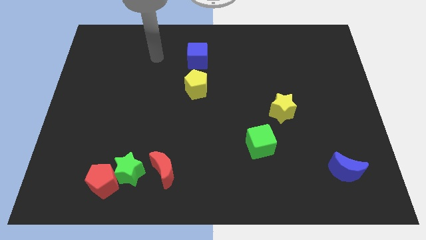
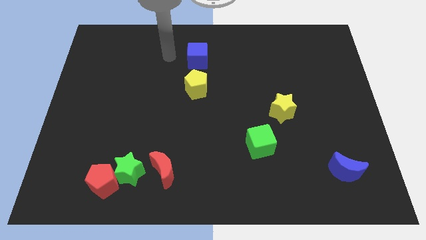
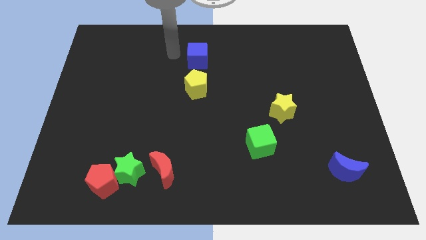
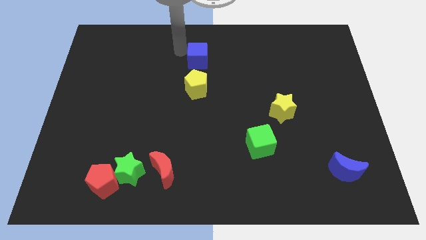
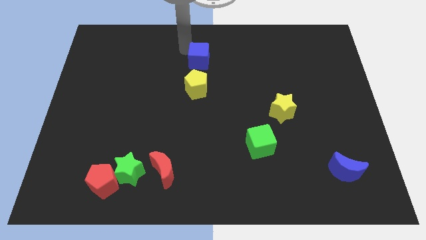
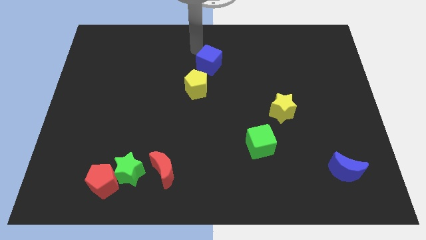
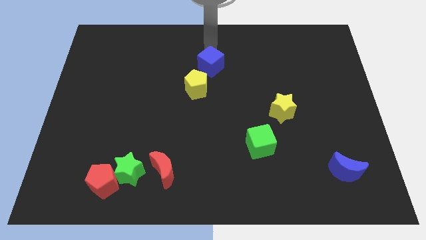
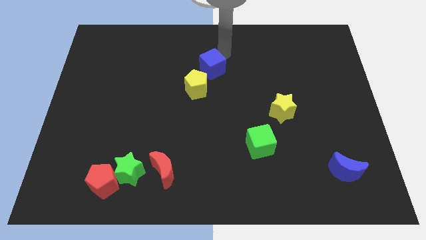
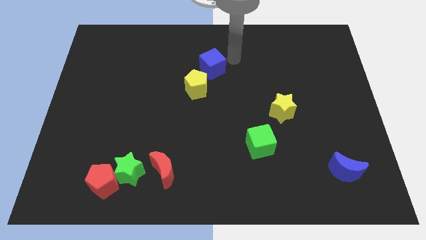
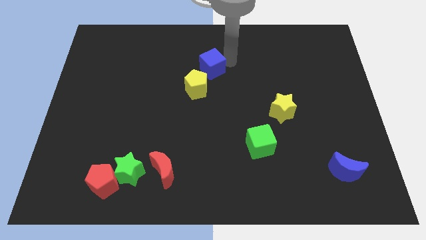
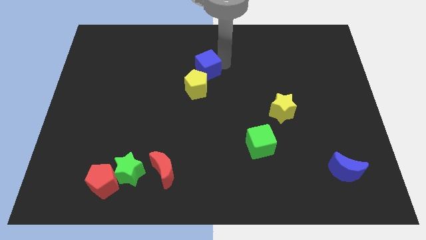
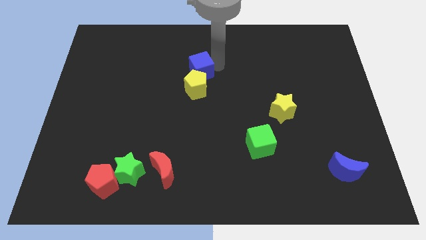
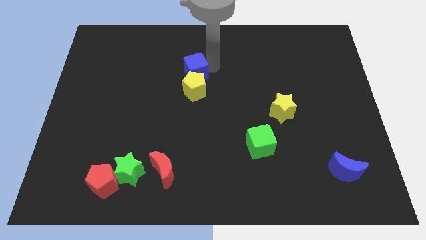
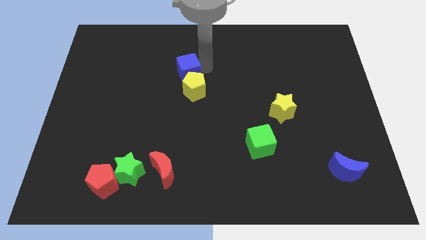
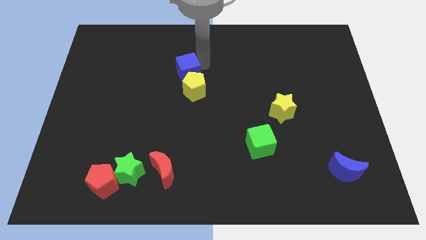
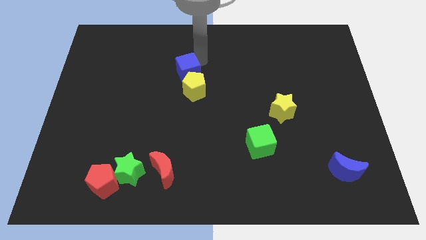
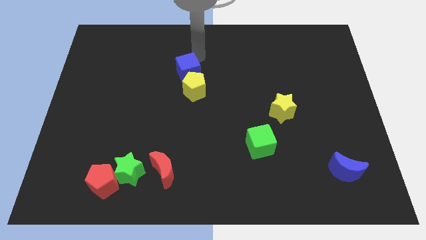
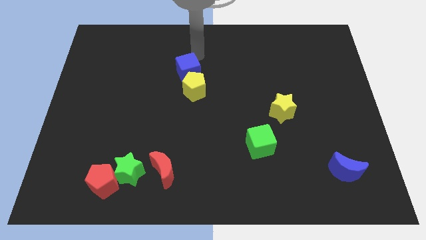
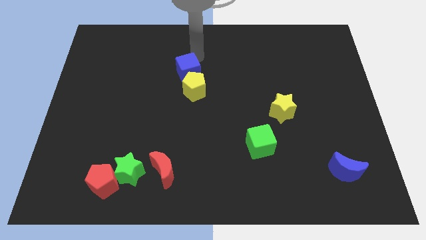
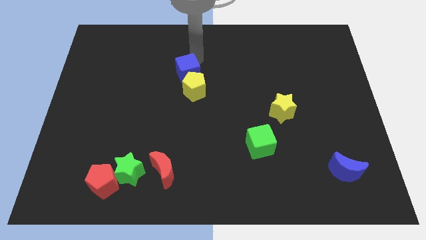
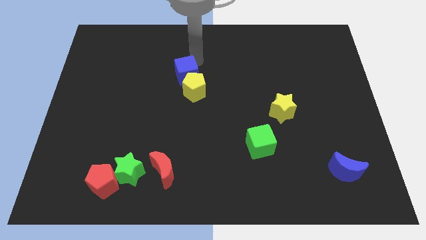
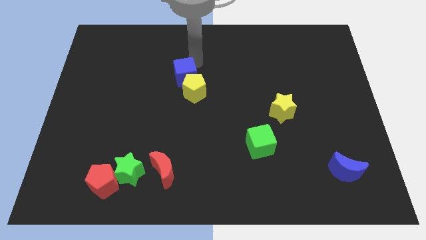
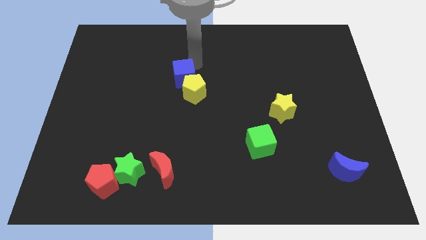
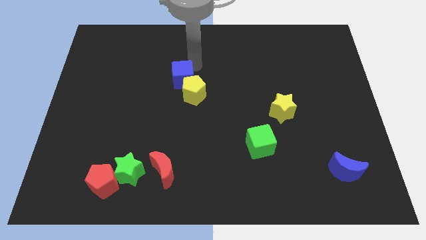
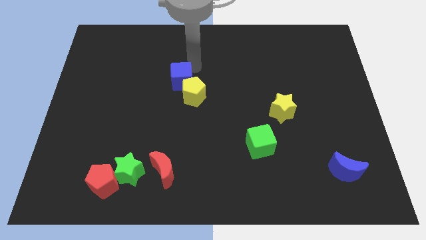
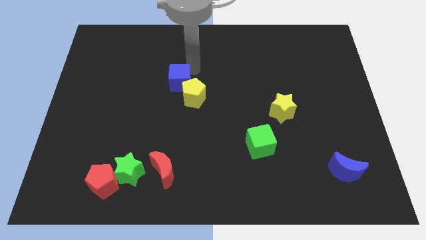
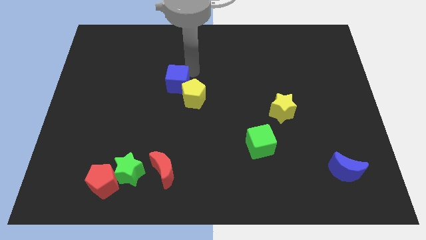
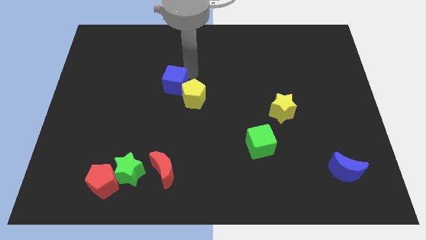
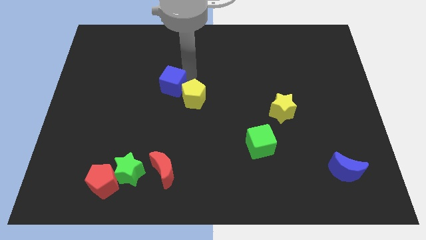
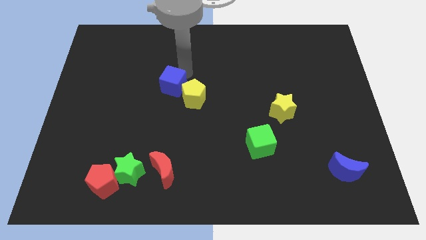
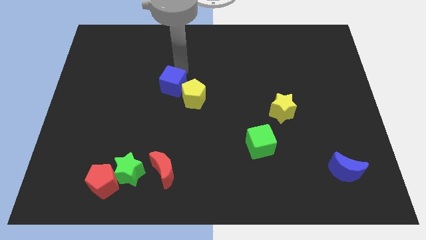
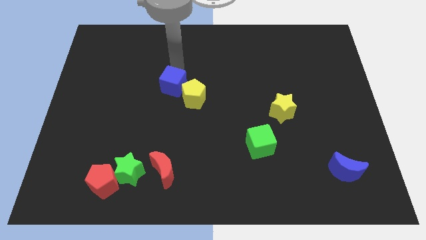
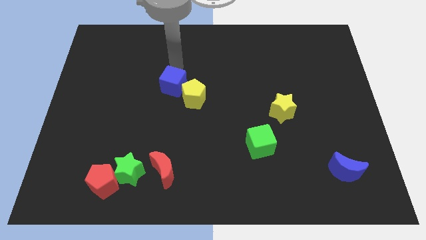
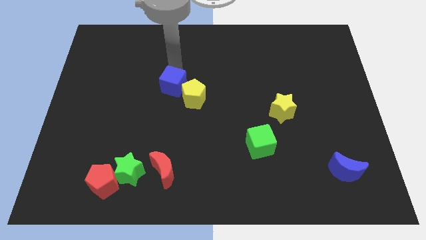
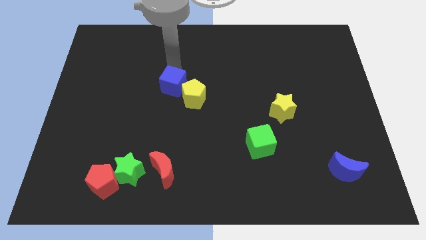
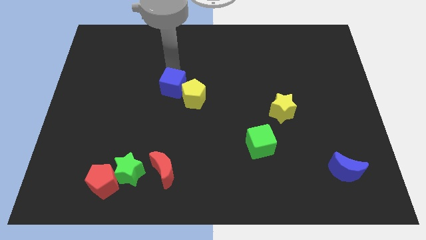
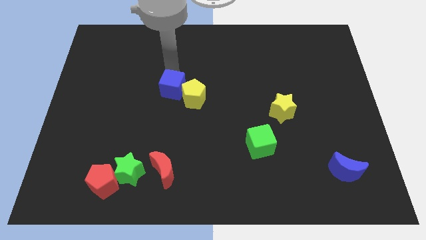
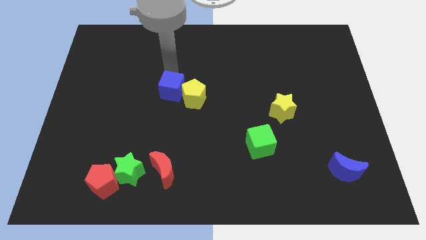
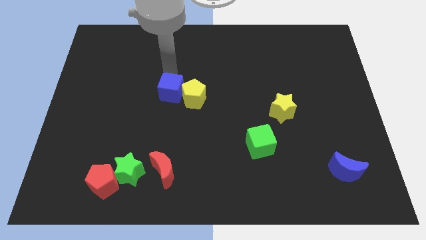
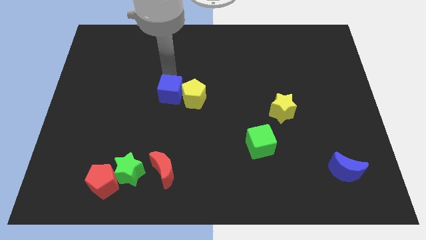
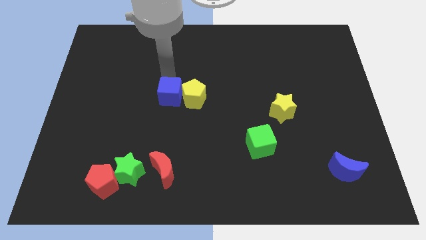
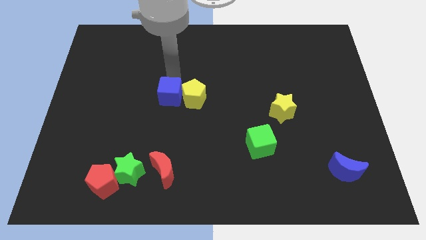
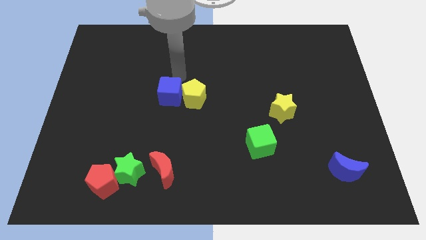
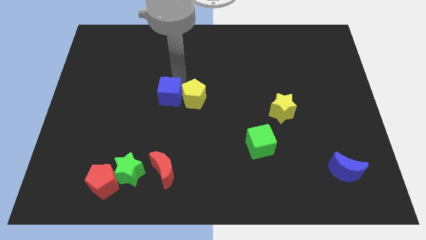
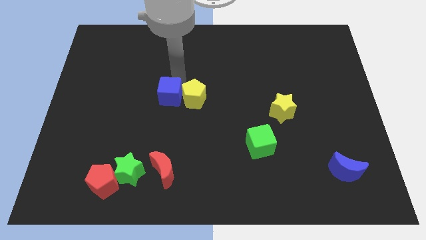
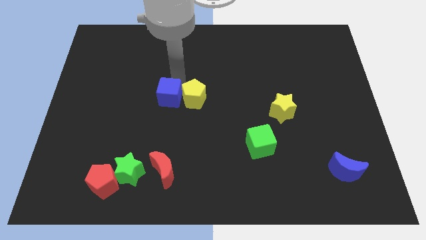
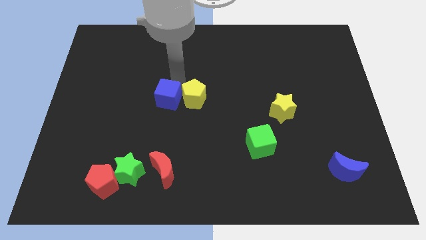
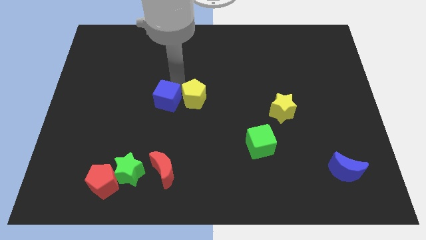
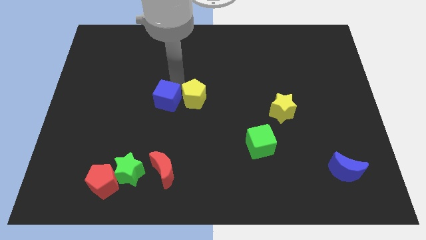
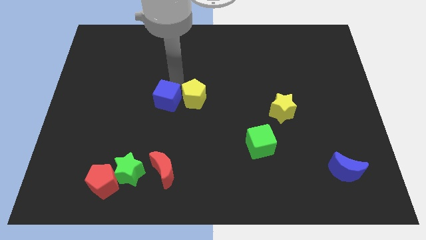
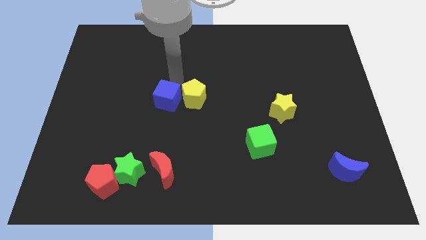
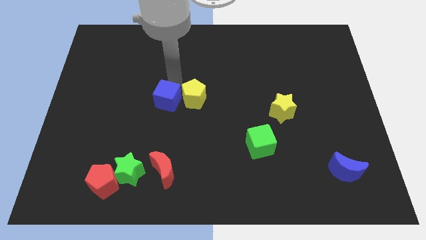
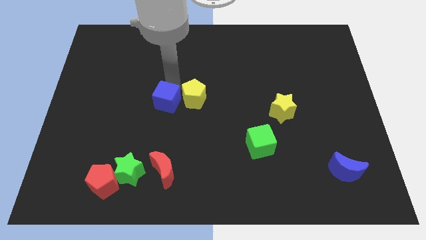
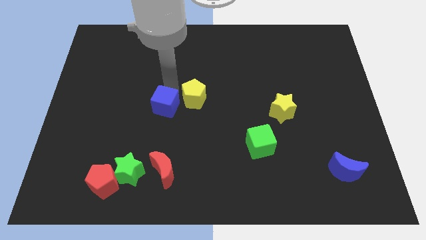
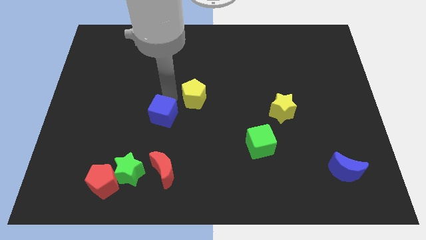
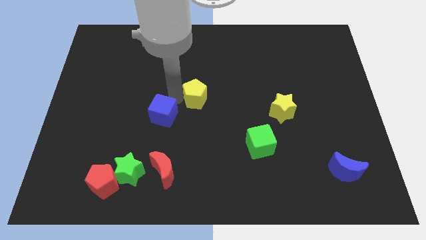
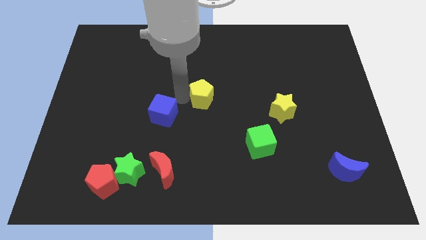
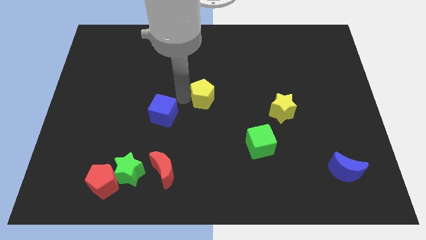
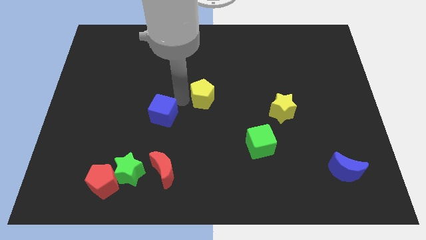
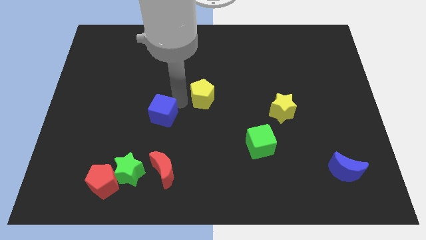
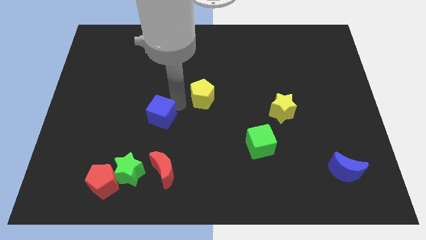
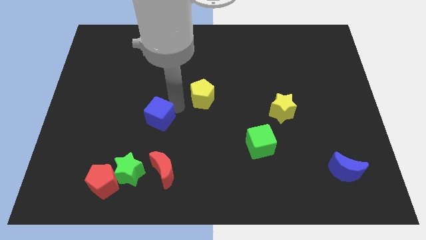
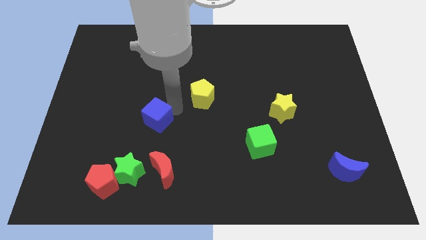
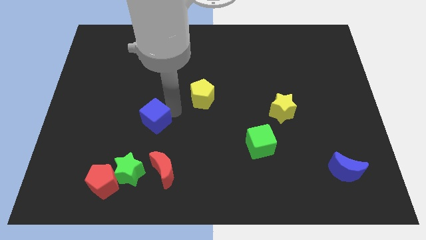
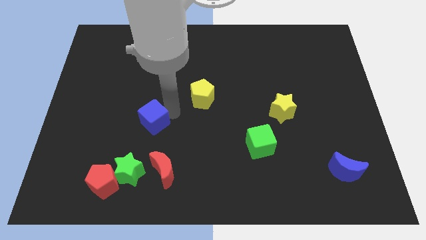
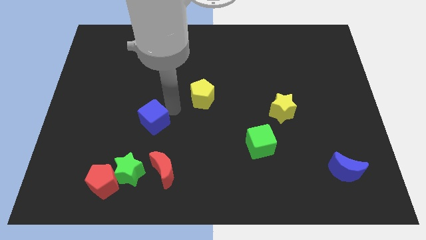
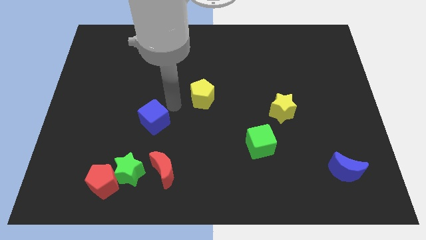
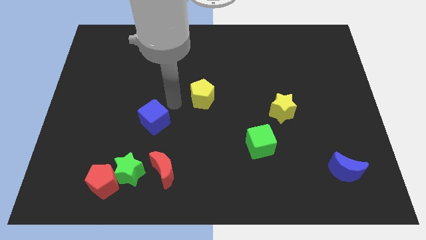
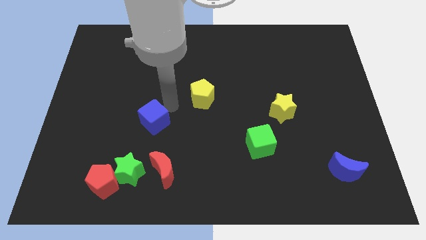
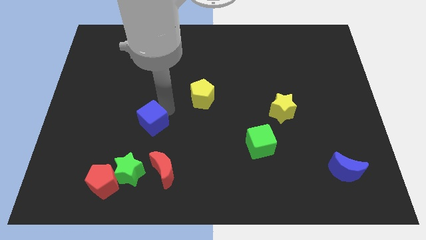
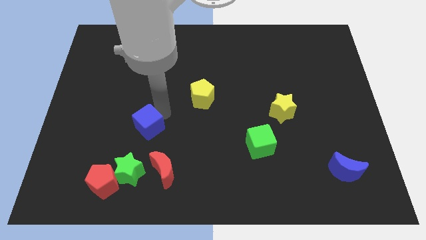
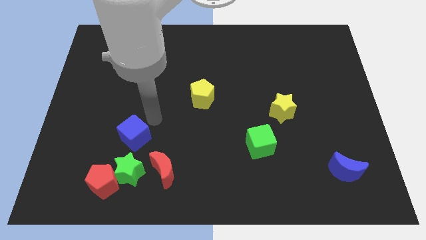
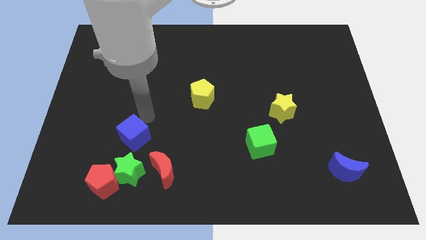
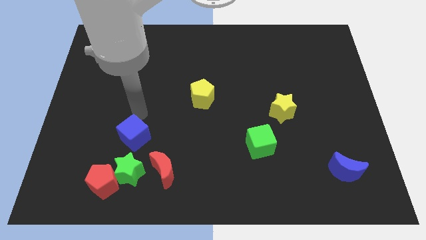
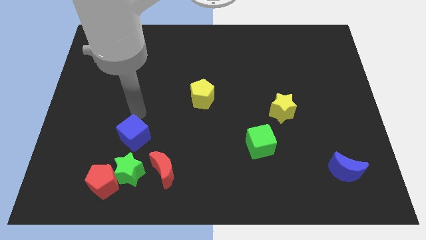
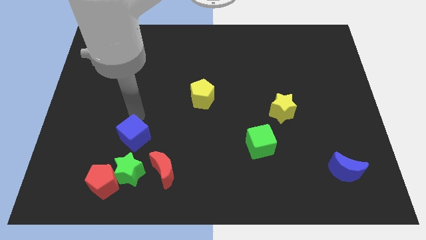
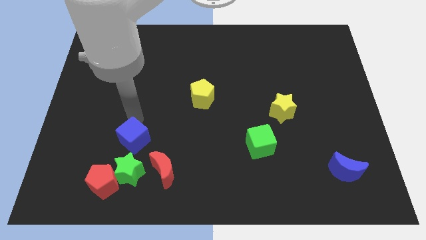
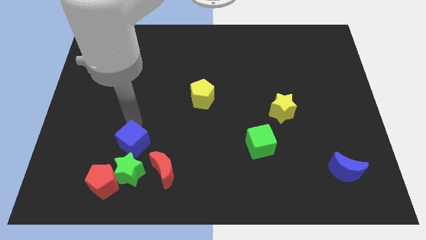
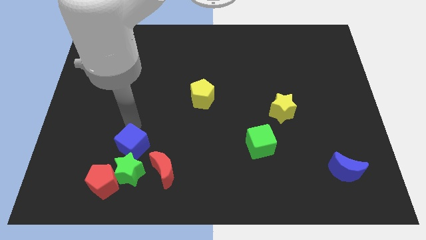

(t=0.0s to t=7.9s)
slide the blue cube towards the green star

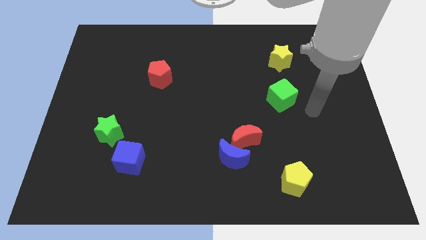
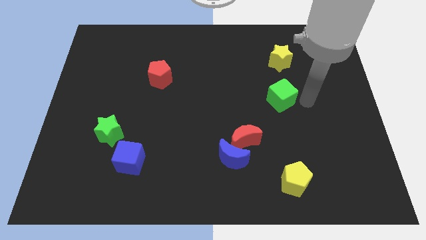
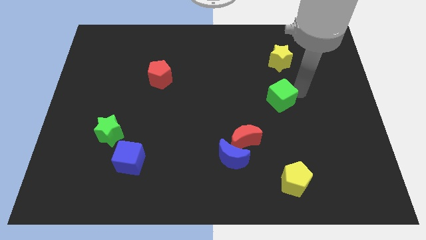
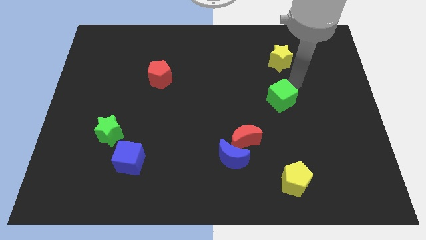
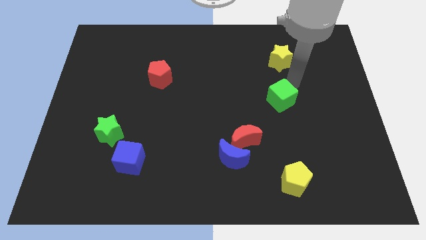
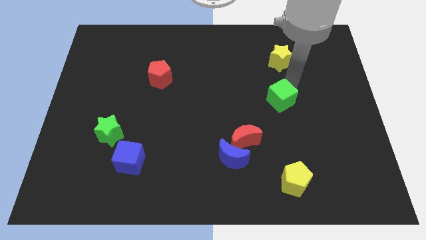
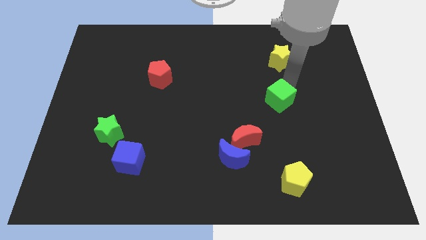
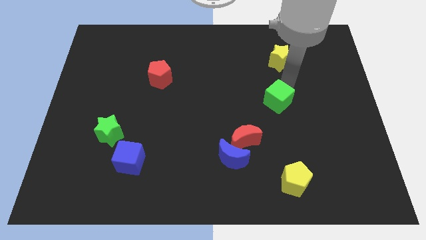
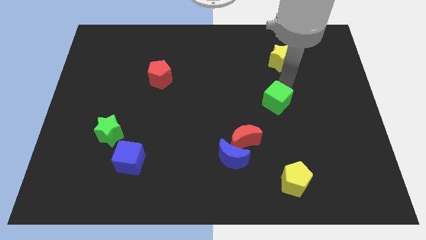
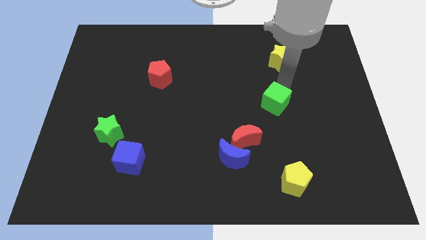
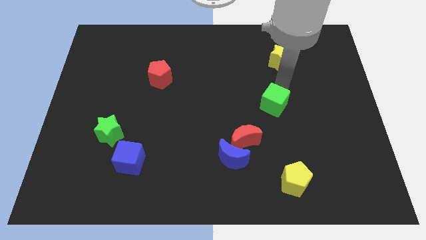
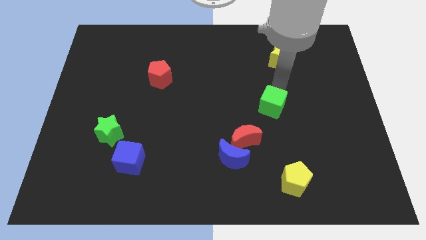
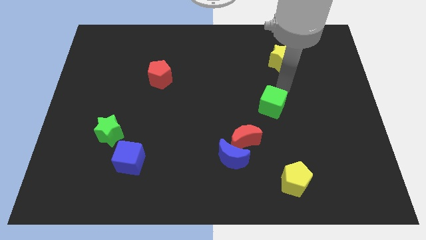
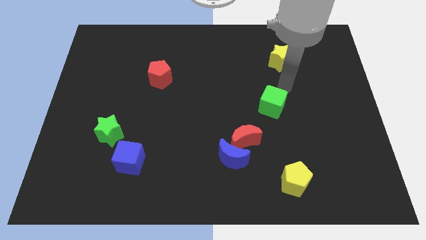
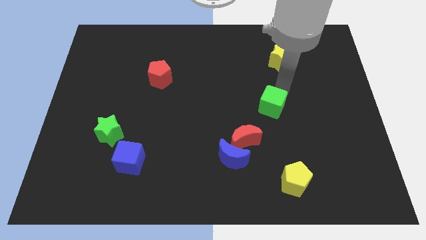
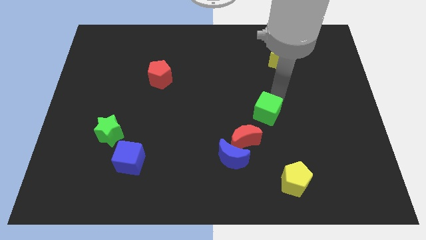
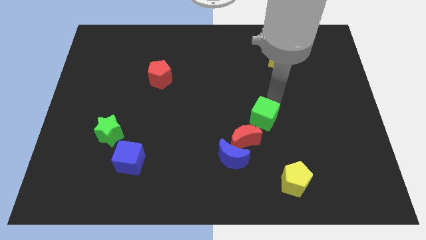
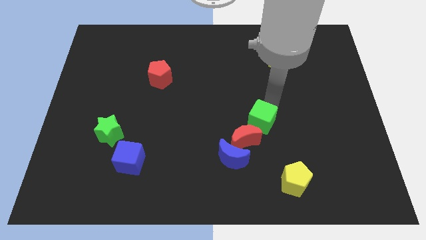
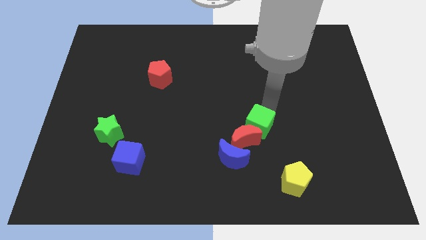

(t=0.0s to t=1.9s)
push the green cube to the red moon
